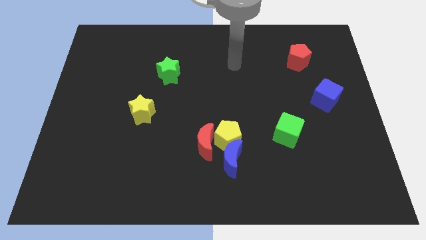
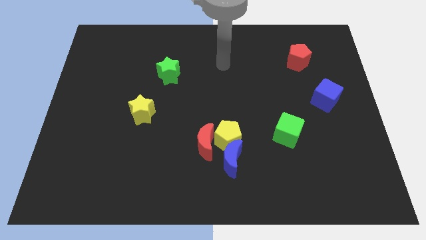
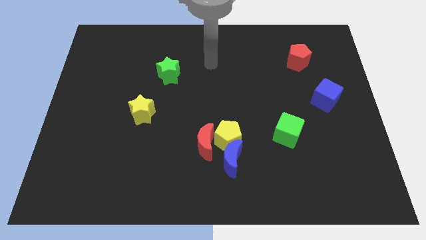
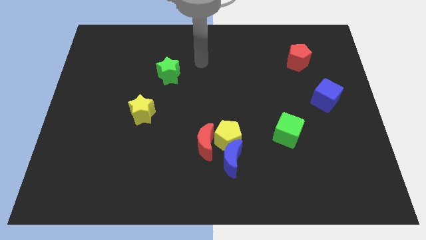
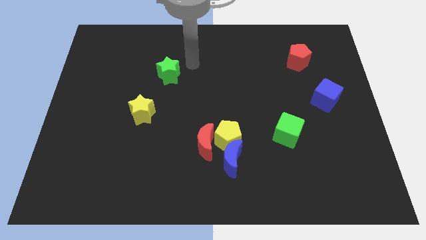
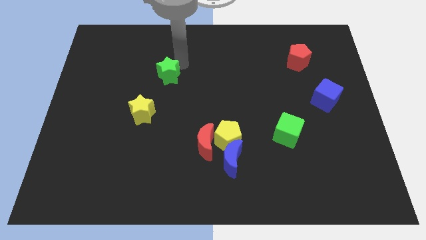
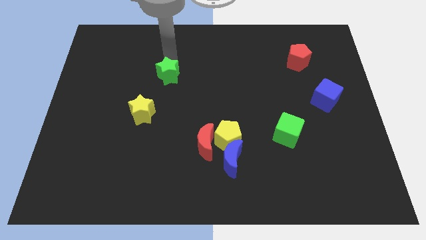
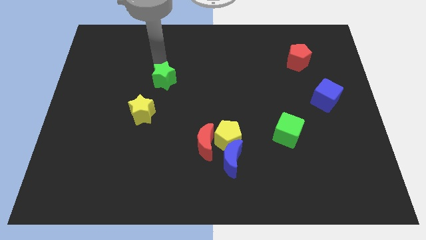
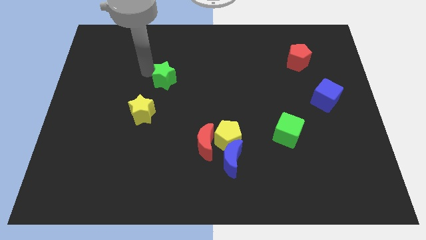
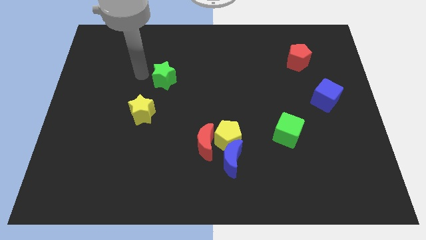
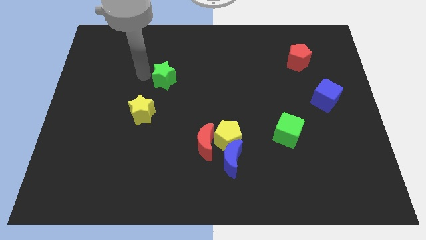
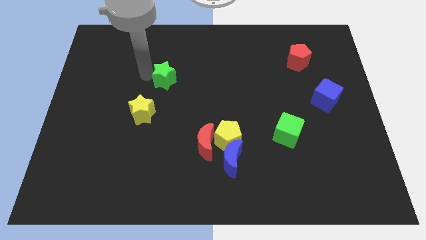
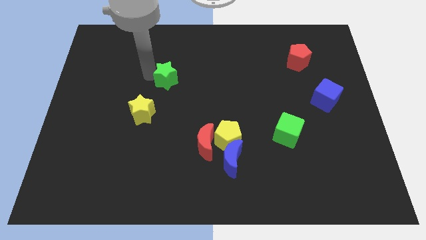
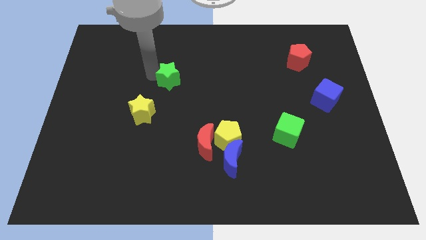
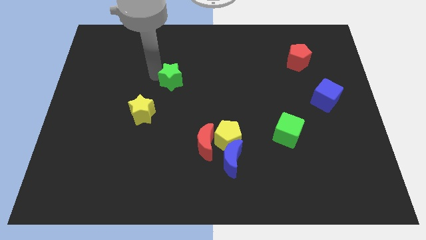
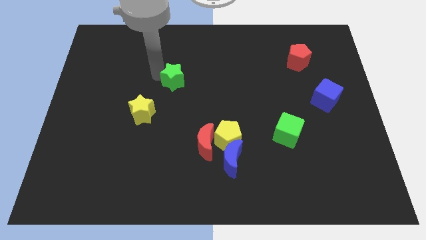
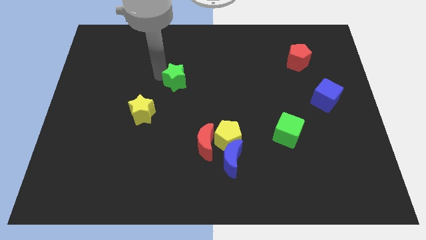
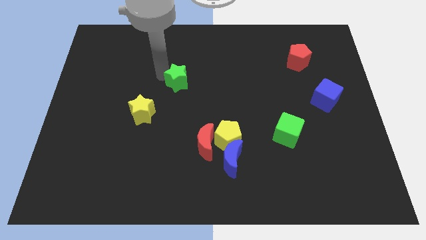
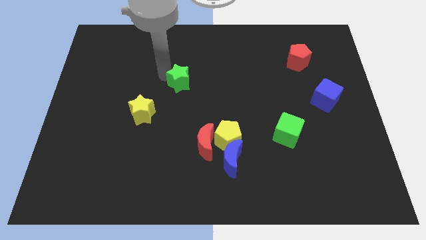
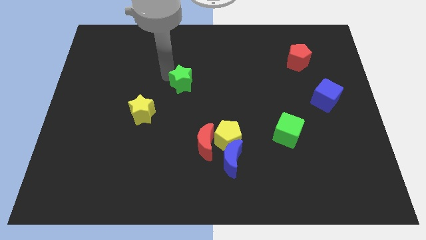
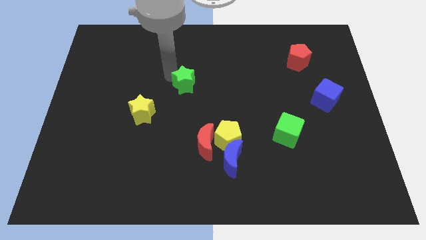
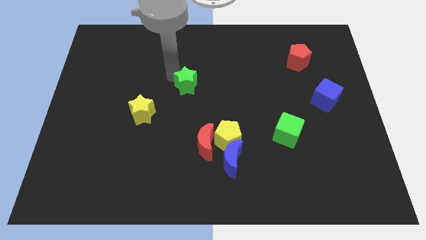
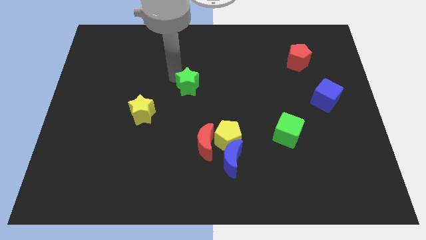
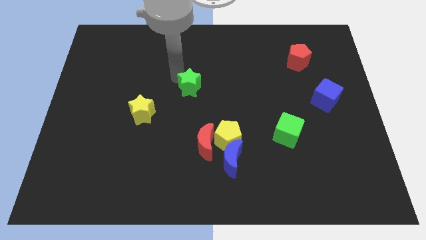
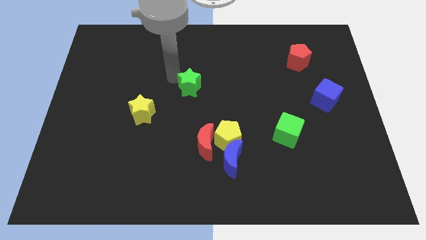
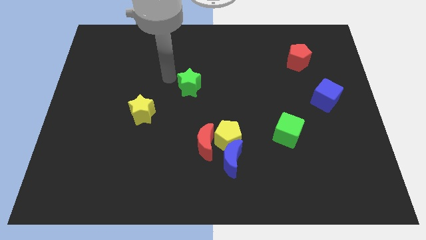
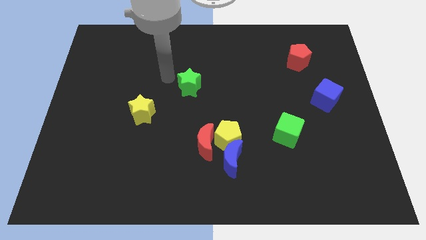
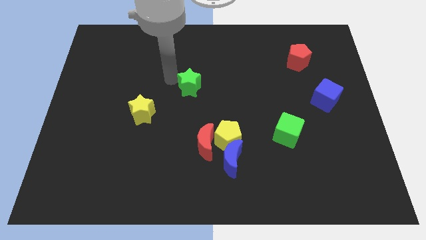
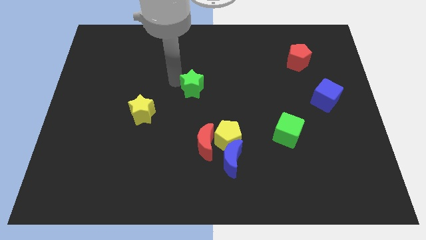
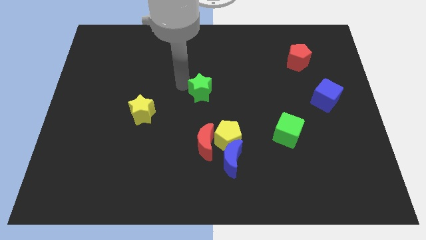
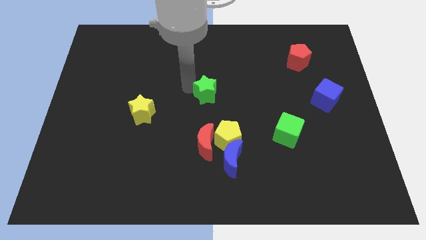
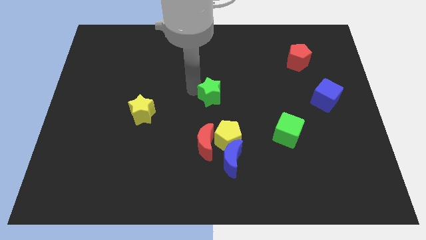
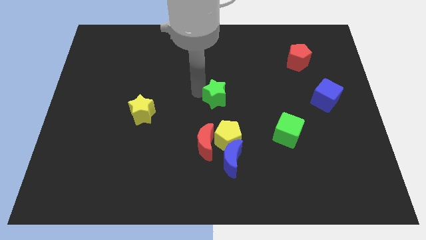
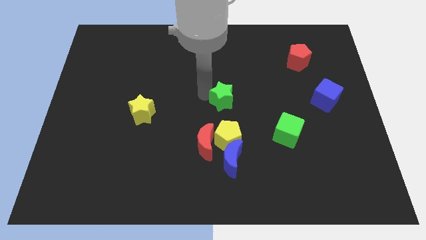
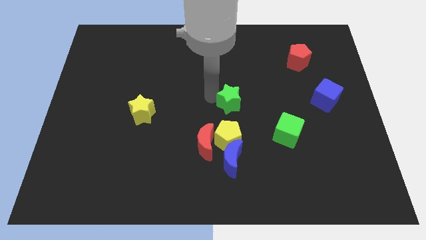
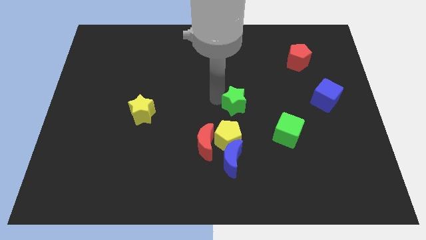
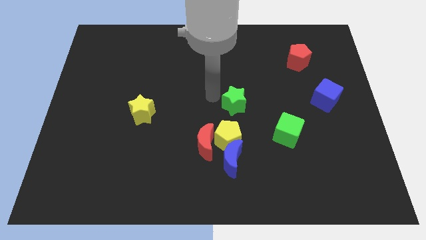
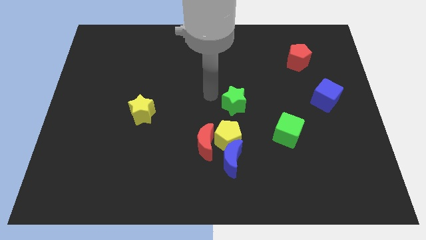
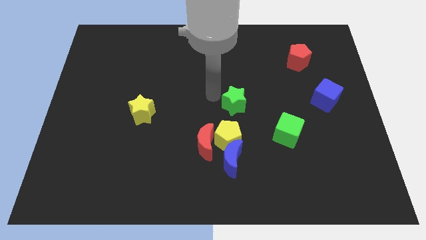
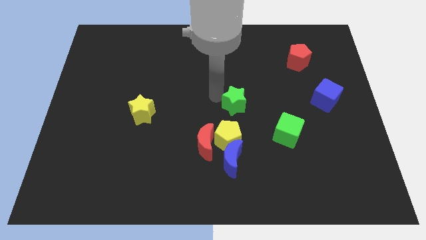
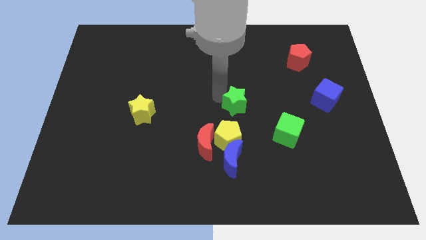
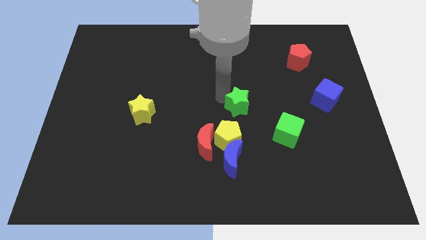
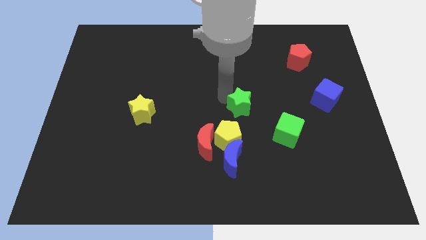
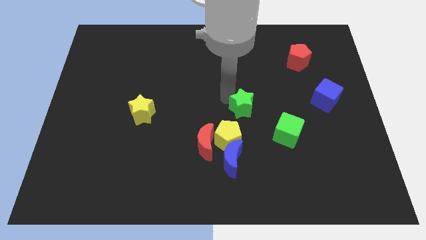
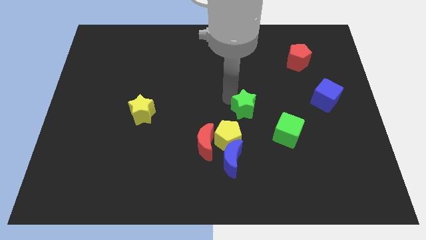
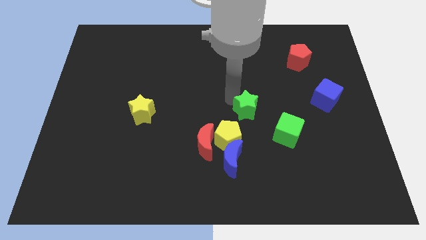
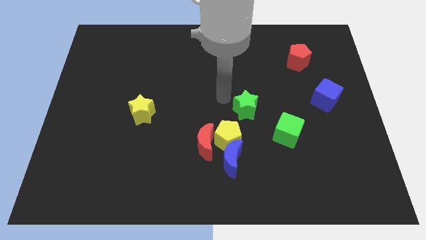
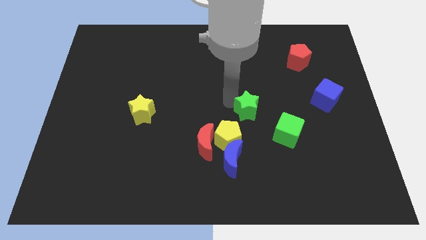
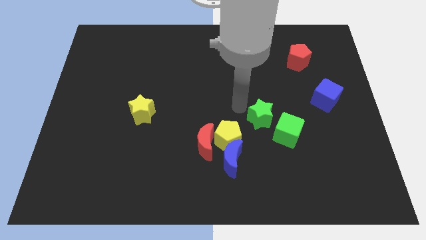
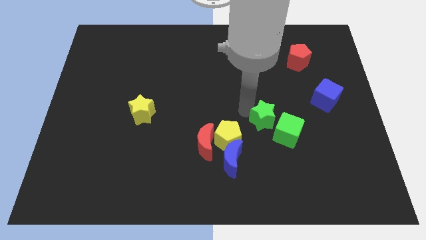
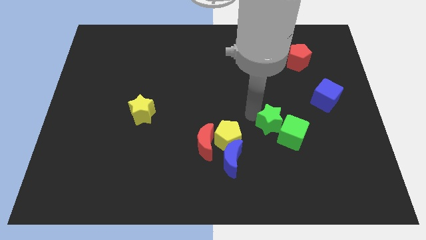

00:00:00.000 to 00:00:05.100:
move the green star close to the green cube

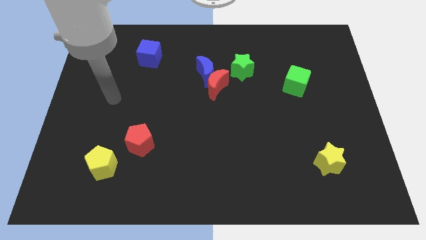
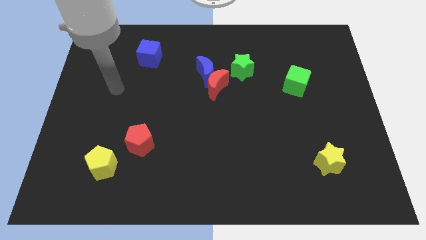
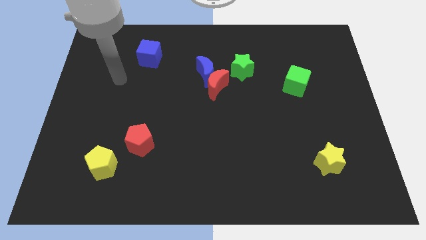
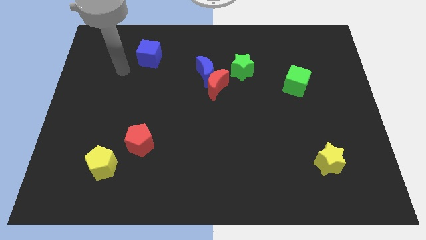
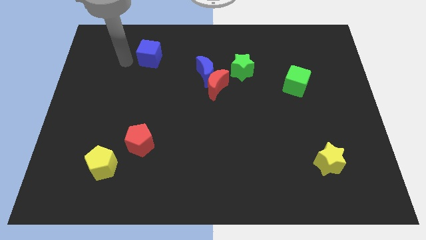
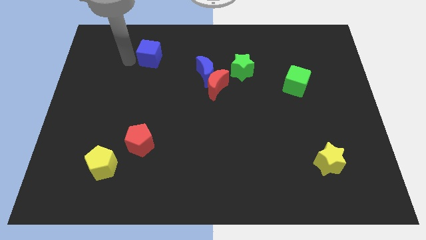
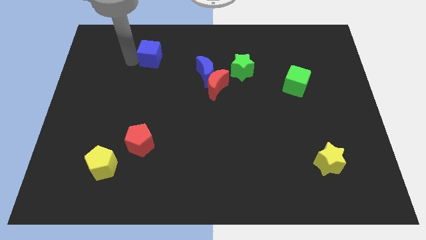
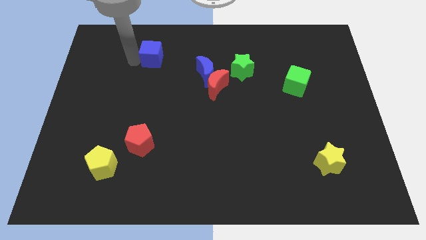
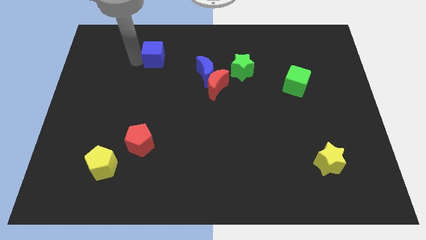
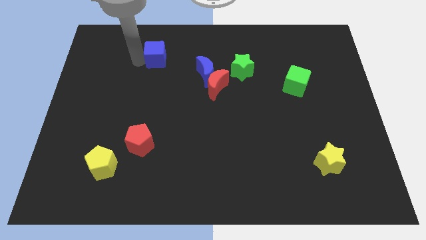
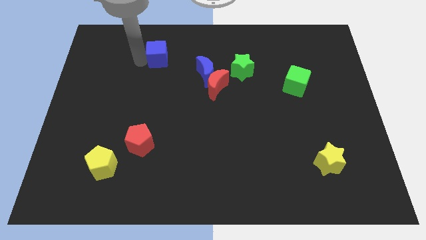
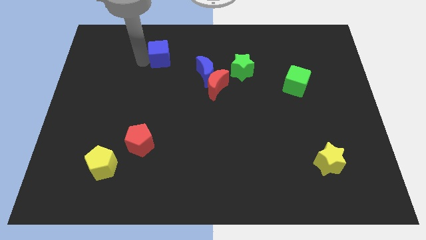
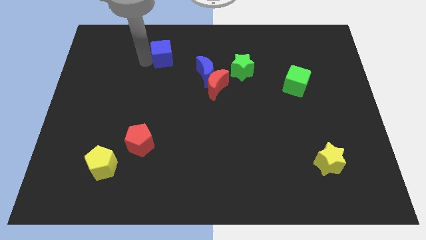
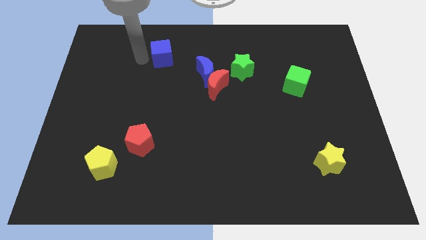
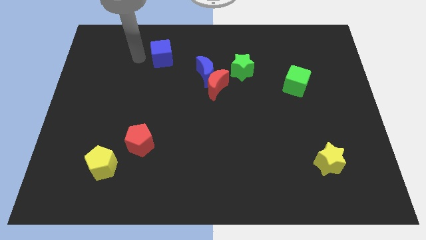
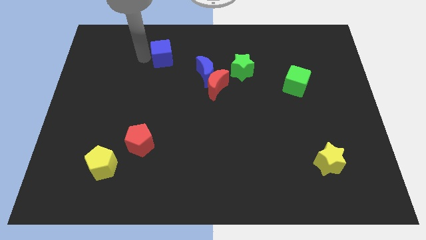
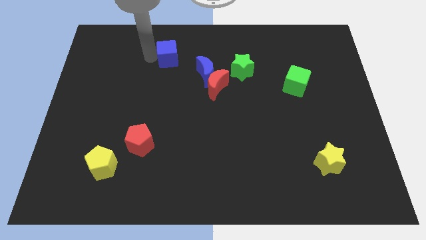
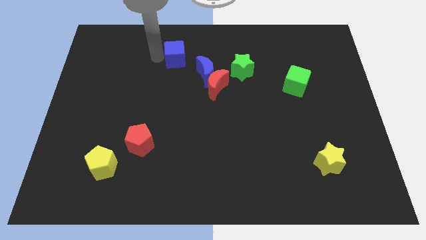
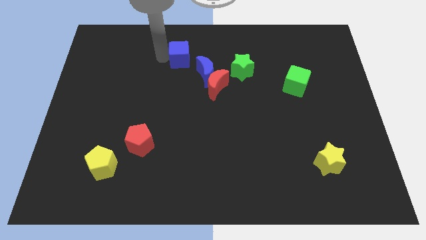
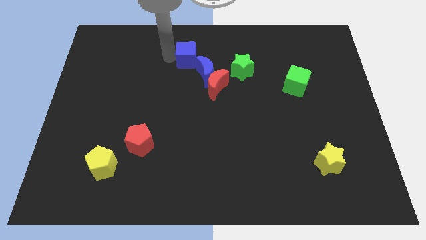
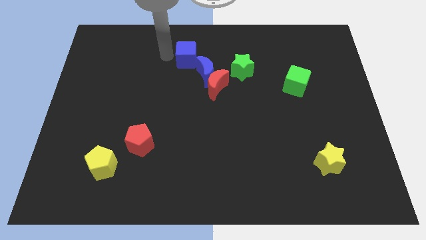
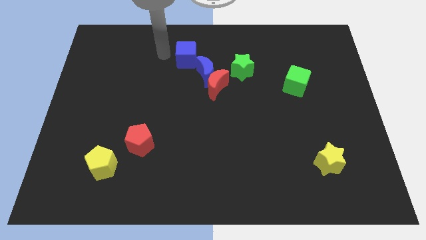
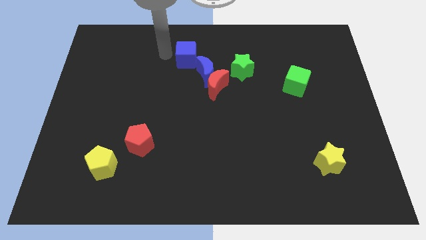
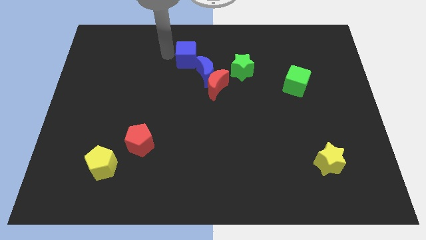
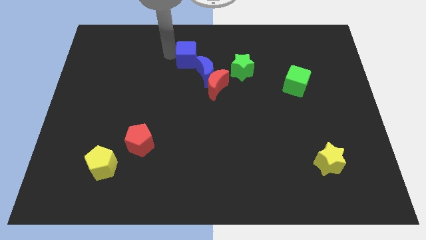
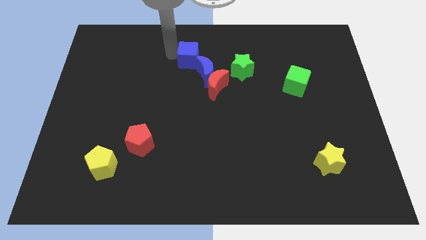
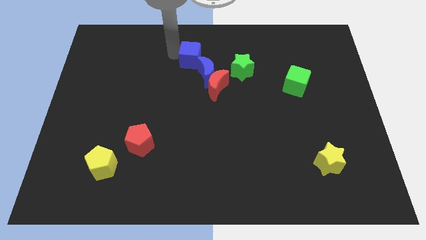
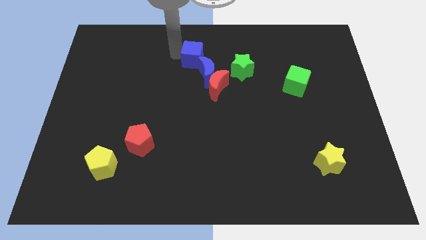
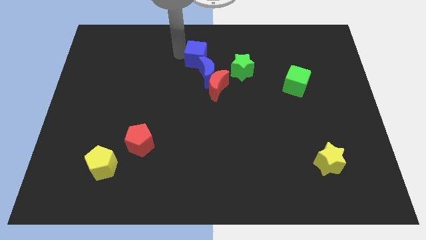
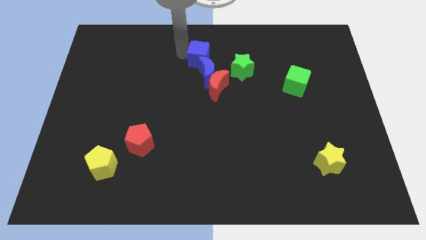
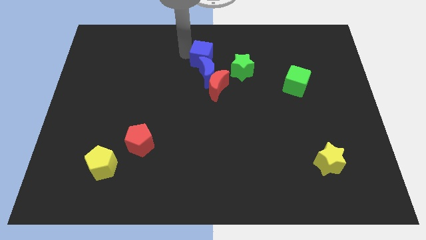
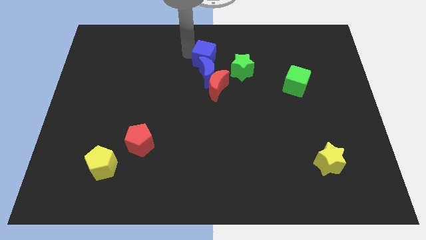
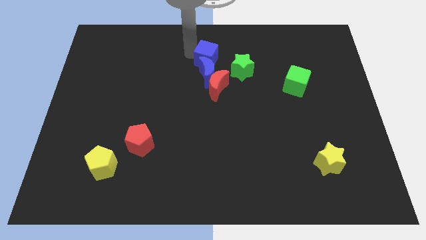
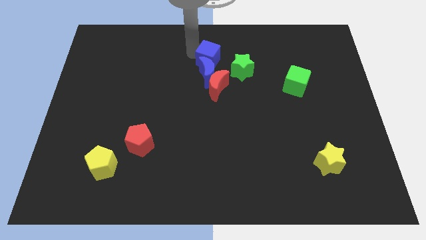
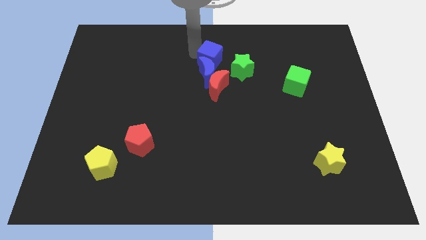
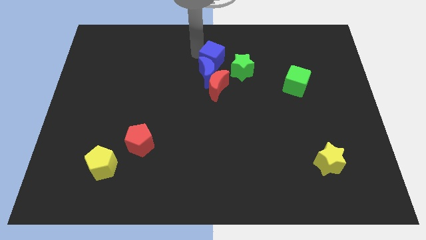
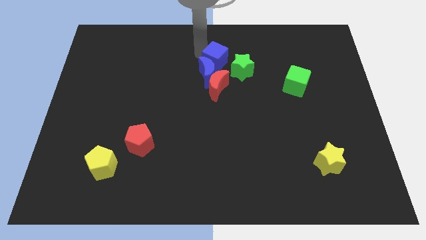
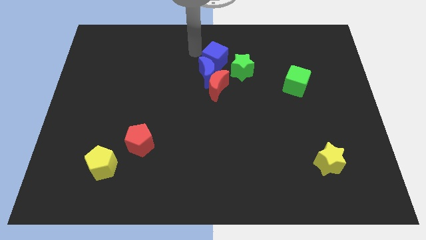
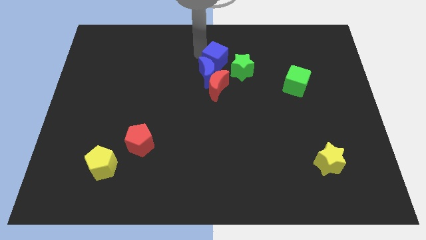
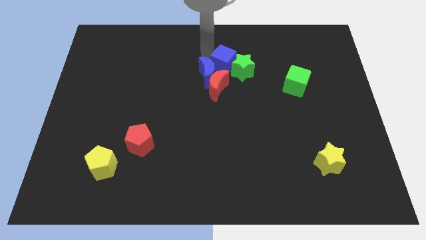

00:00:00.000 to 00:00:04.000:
slide the blue cube next to the green star
